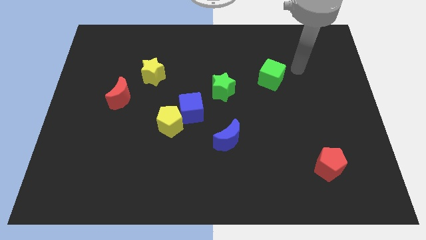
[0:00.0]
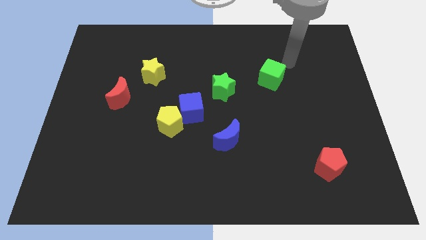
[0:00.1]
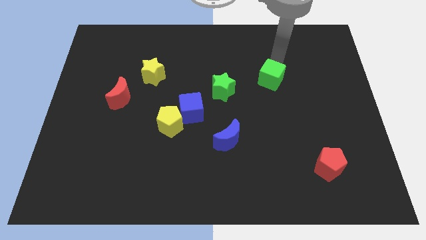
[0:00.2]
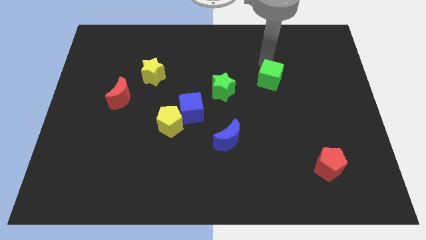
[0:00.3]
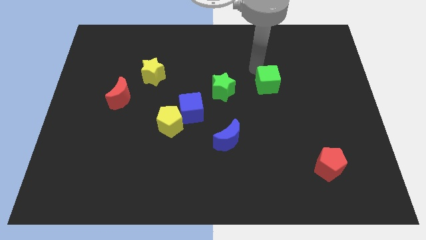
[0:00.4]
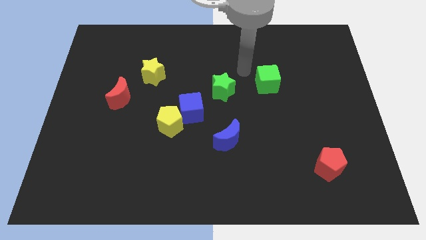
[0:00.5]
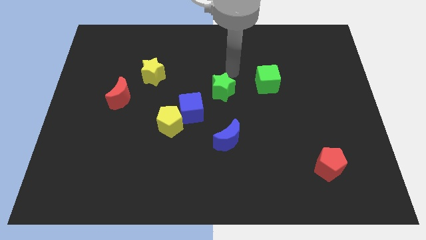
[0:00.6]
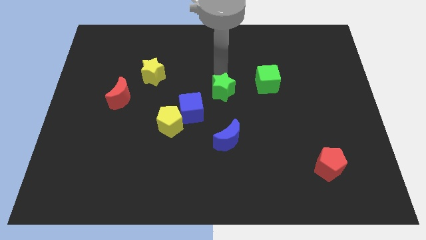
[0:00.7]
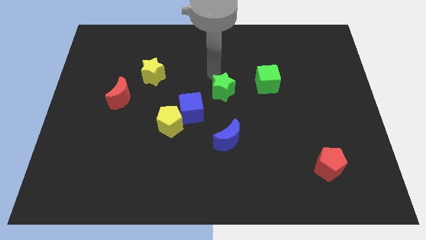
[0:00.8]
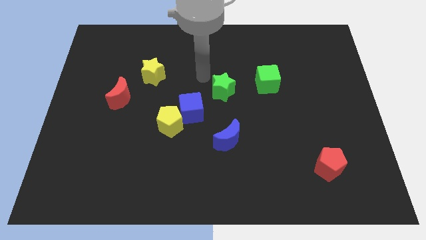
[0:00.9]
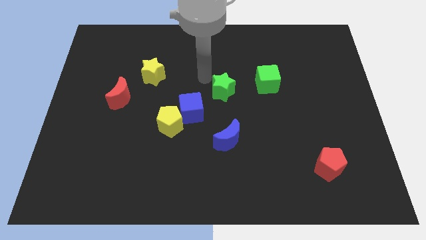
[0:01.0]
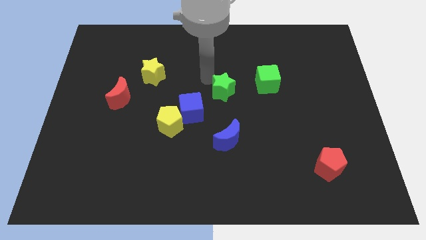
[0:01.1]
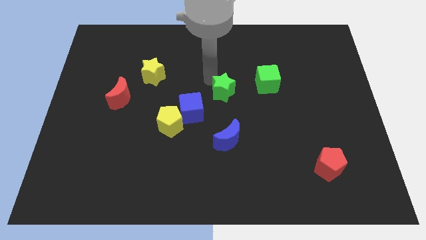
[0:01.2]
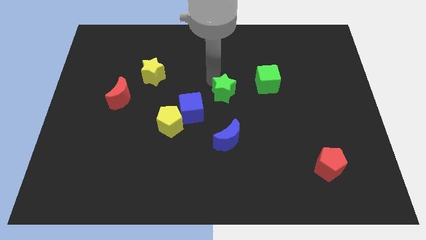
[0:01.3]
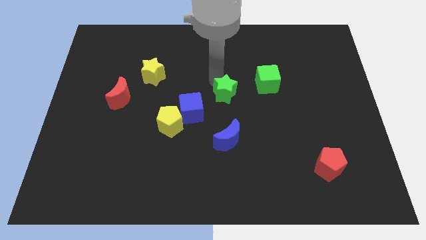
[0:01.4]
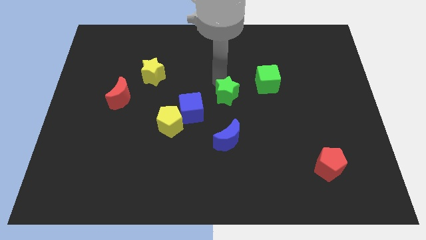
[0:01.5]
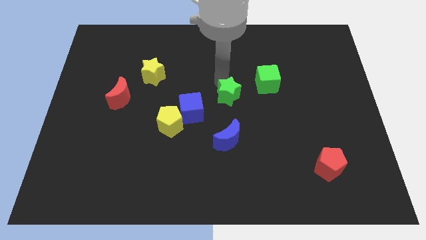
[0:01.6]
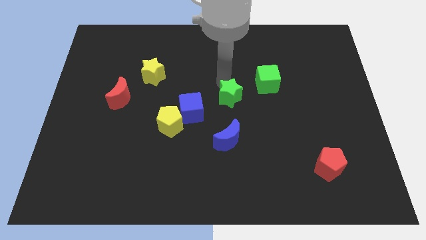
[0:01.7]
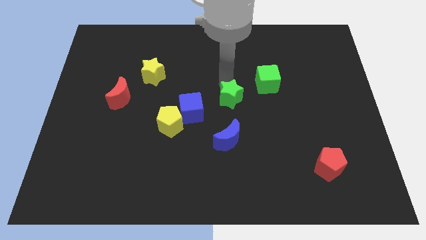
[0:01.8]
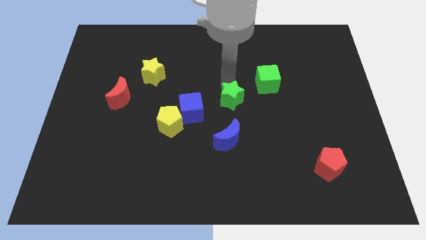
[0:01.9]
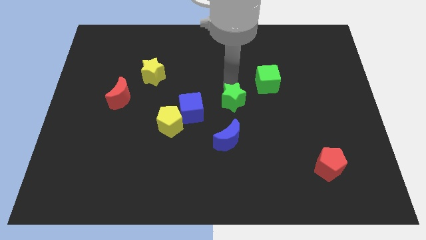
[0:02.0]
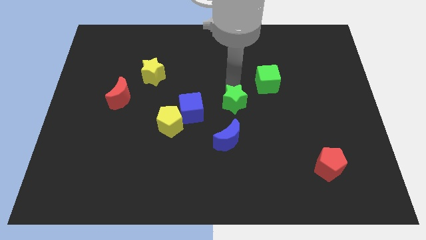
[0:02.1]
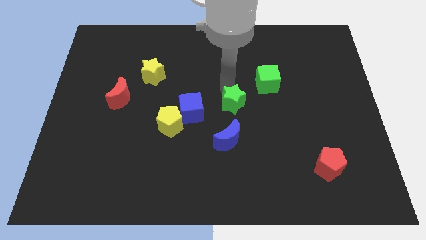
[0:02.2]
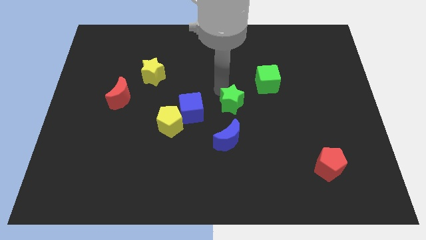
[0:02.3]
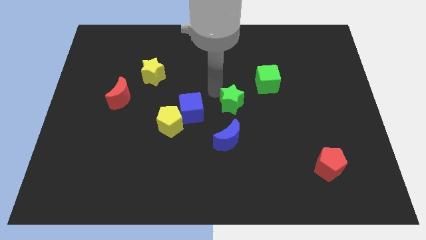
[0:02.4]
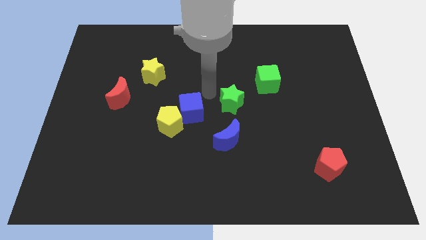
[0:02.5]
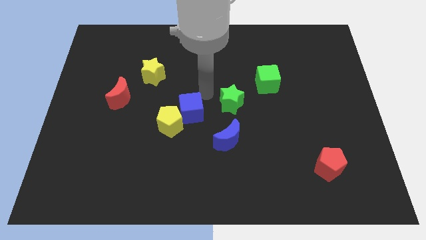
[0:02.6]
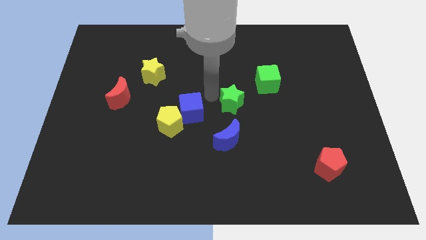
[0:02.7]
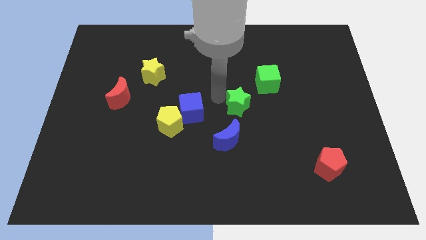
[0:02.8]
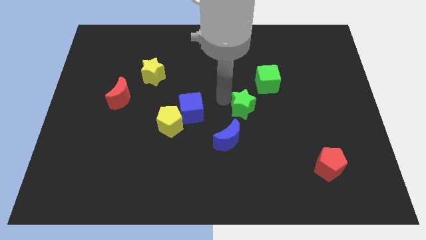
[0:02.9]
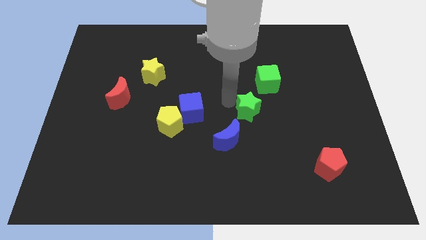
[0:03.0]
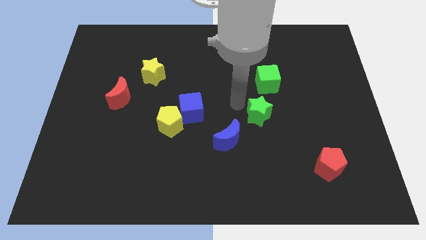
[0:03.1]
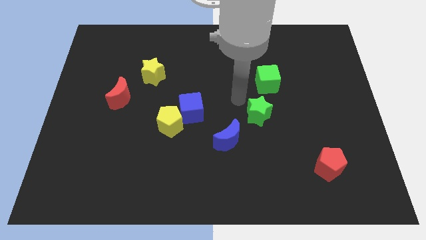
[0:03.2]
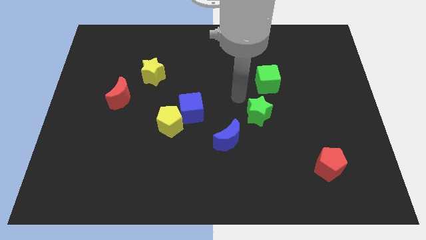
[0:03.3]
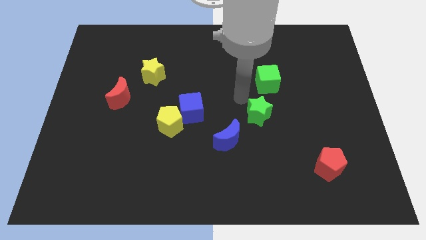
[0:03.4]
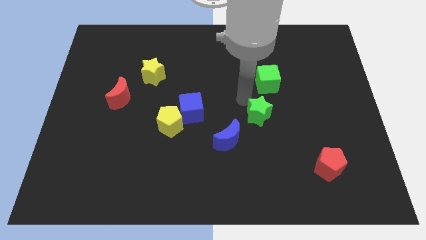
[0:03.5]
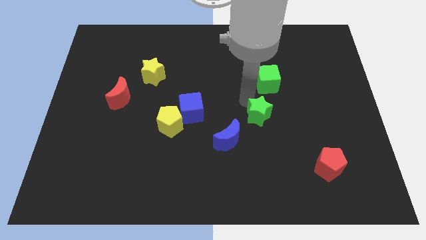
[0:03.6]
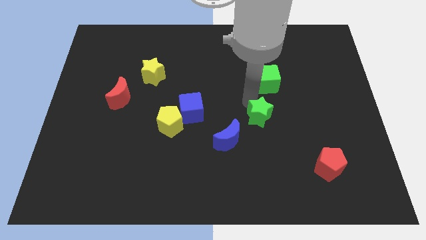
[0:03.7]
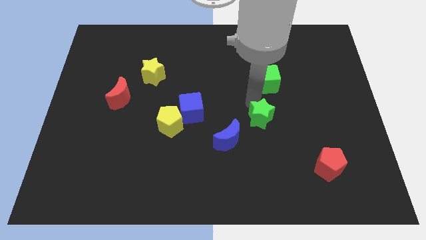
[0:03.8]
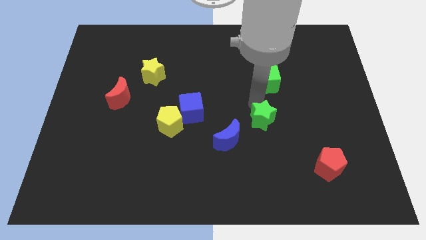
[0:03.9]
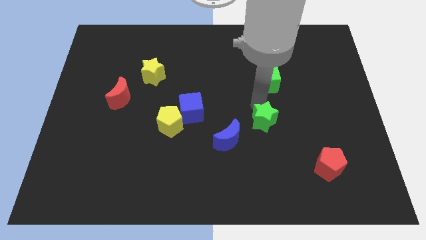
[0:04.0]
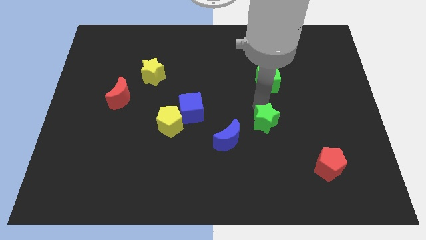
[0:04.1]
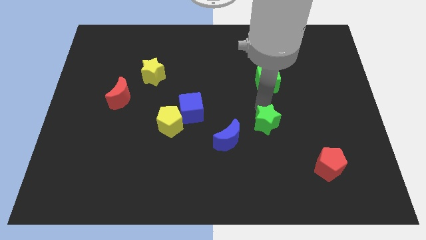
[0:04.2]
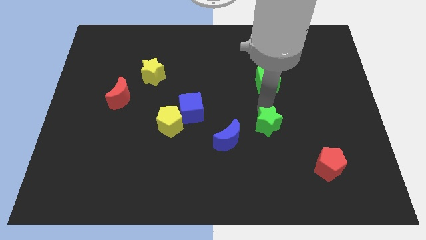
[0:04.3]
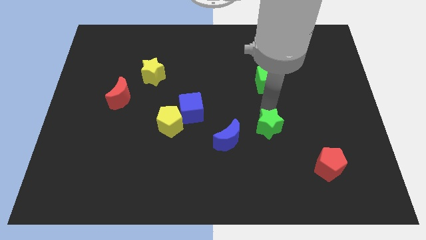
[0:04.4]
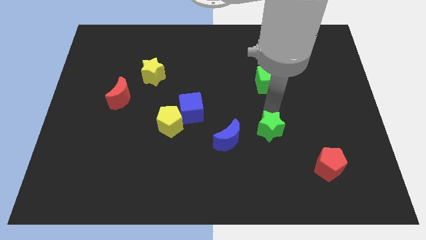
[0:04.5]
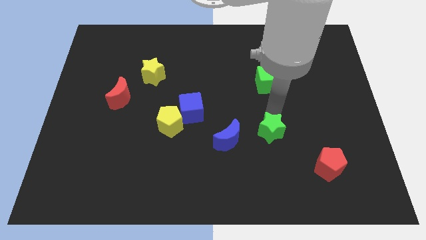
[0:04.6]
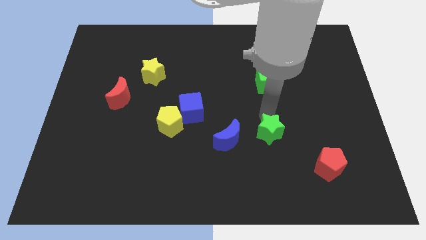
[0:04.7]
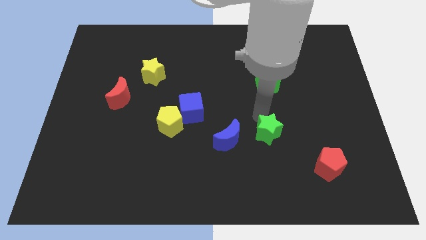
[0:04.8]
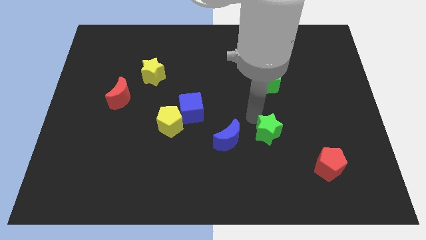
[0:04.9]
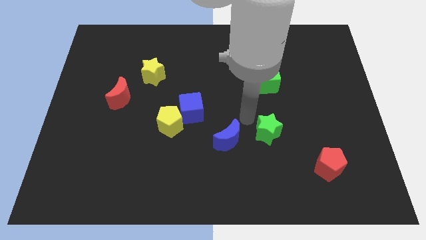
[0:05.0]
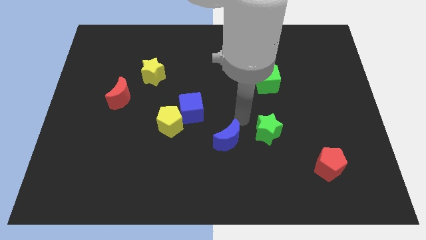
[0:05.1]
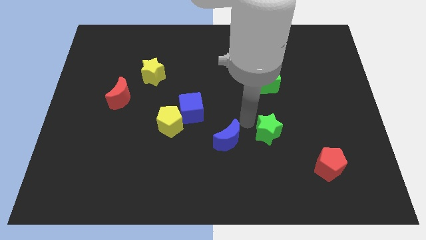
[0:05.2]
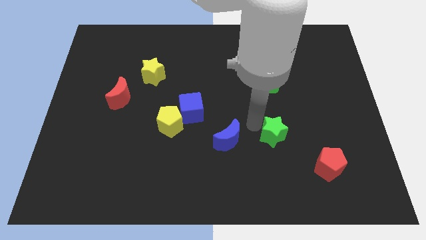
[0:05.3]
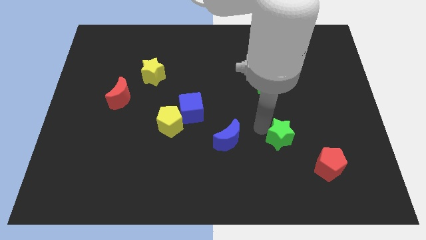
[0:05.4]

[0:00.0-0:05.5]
slide the green star to the top left side of the red pentagon

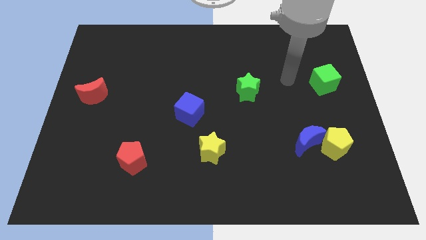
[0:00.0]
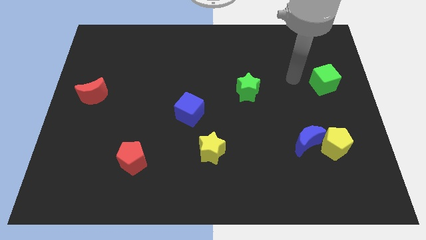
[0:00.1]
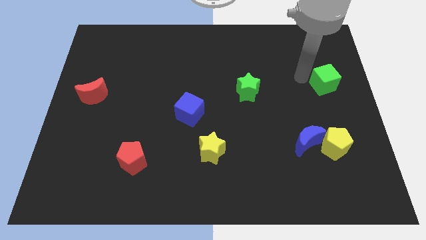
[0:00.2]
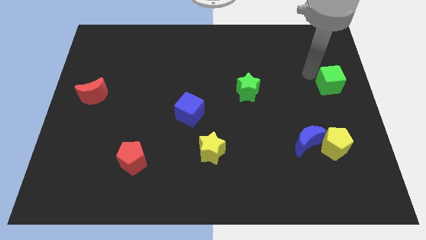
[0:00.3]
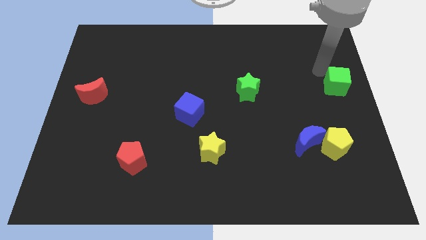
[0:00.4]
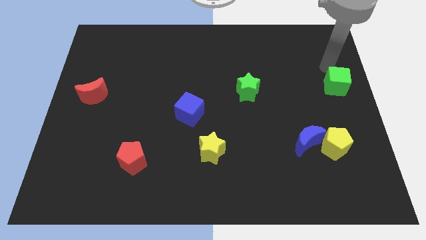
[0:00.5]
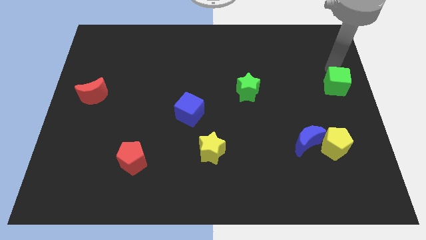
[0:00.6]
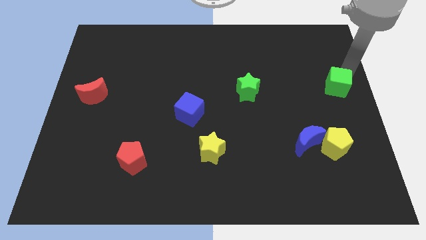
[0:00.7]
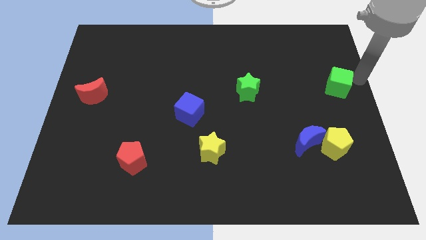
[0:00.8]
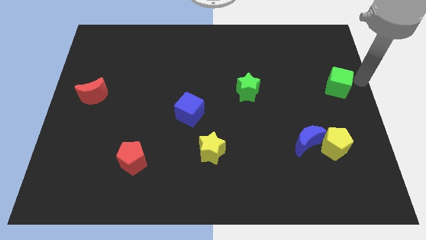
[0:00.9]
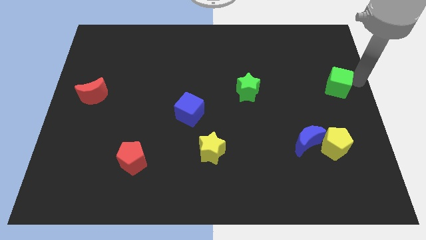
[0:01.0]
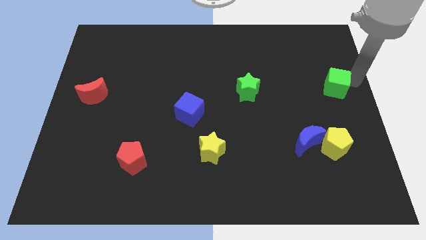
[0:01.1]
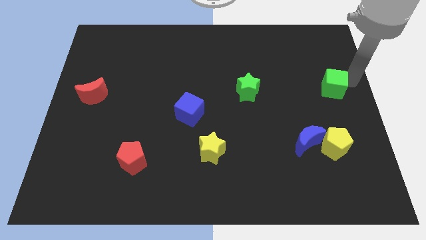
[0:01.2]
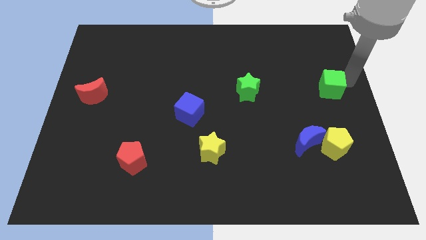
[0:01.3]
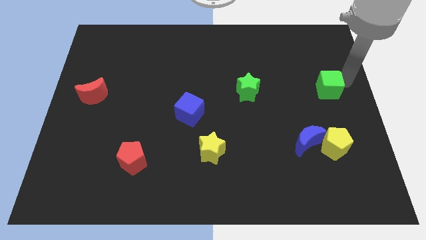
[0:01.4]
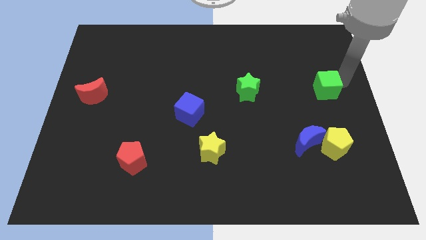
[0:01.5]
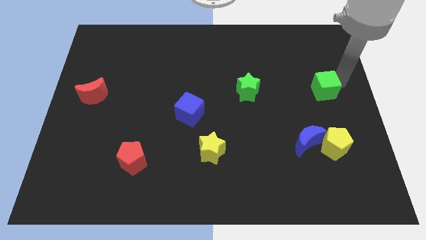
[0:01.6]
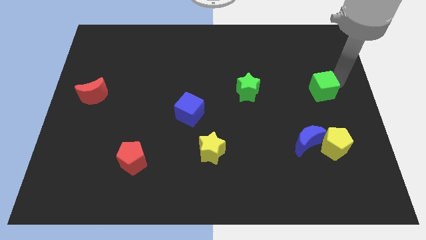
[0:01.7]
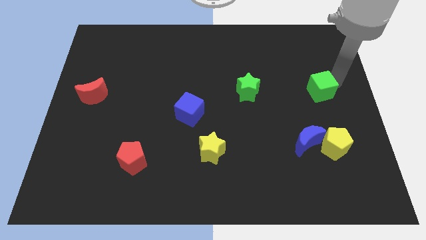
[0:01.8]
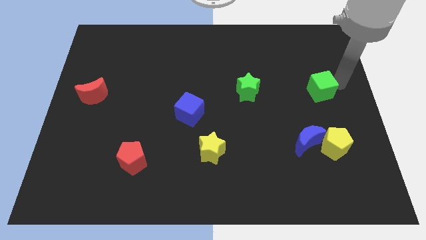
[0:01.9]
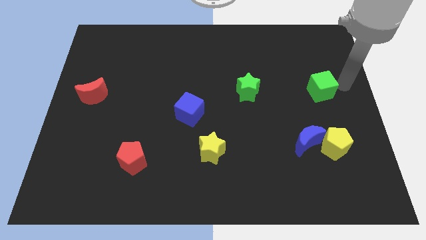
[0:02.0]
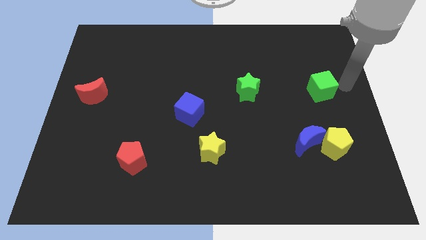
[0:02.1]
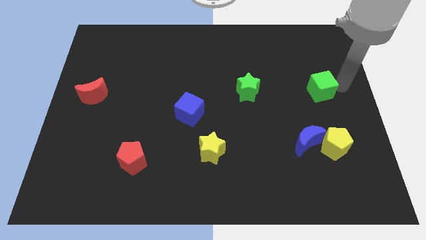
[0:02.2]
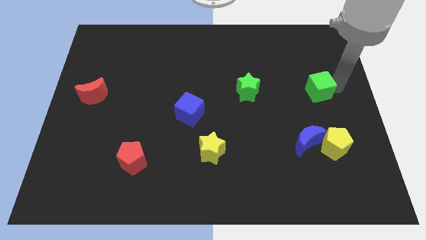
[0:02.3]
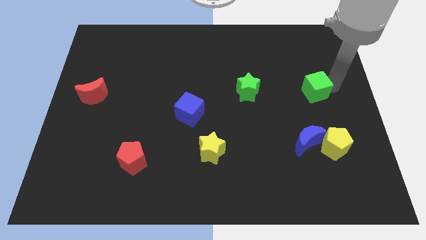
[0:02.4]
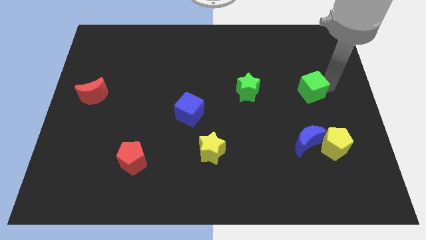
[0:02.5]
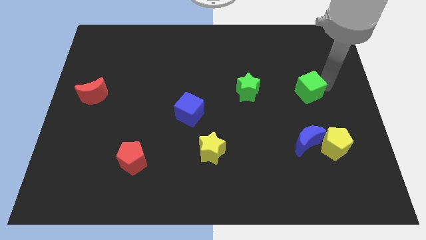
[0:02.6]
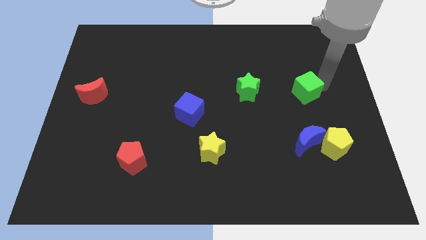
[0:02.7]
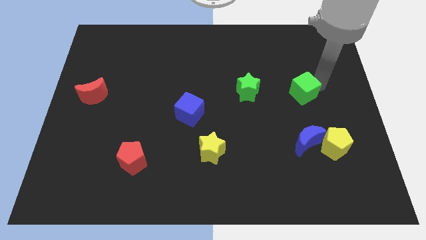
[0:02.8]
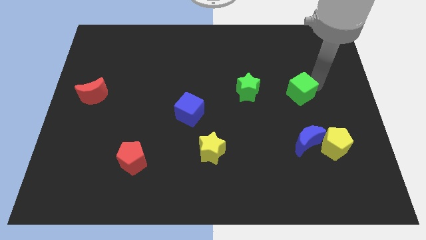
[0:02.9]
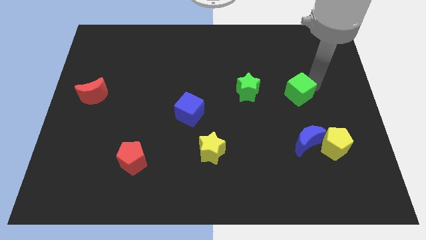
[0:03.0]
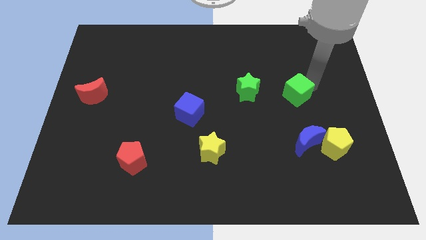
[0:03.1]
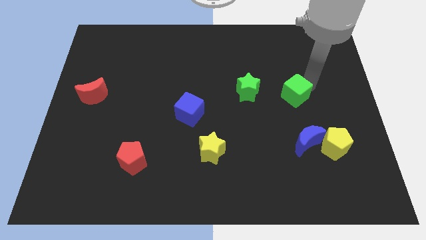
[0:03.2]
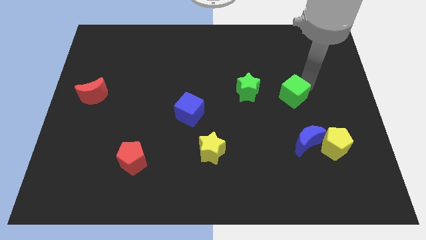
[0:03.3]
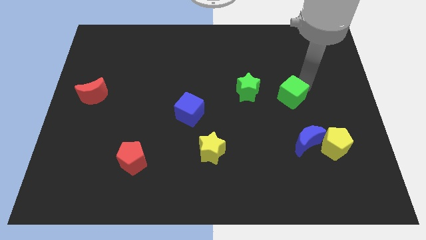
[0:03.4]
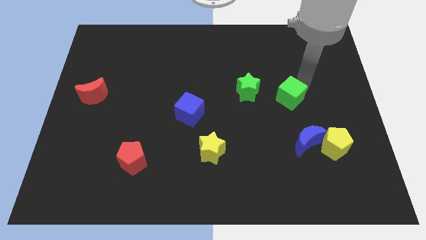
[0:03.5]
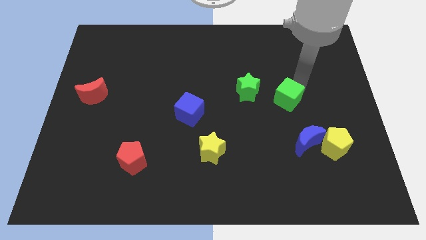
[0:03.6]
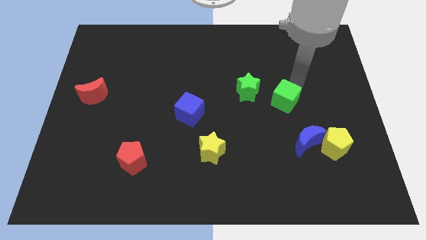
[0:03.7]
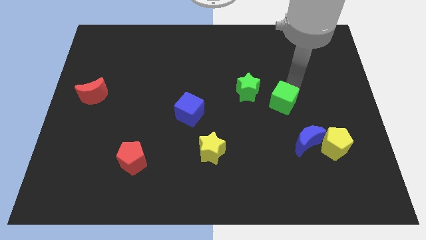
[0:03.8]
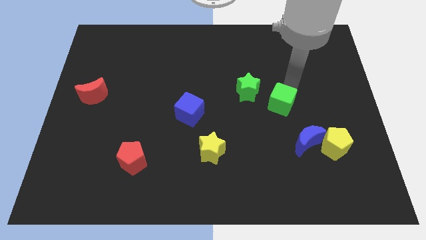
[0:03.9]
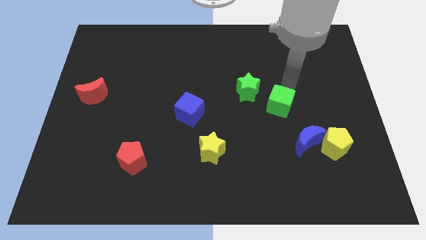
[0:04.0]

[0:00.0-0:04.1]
slide the green cube diagonally up and to the left of the blue moon
